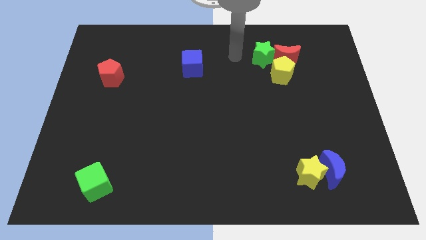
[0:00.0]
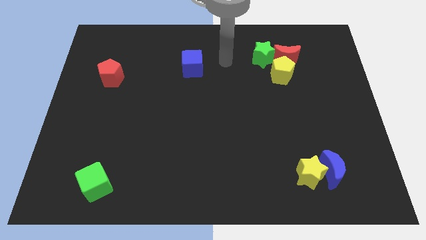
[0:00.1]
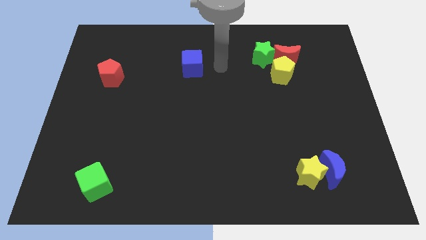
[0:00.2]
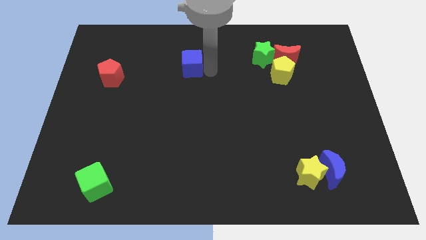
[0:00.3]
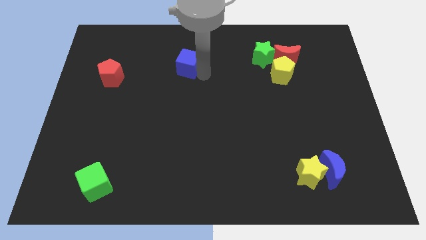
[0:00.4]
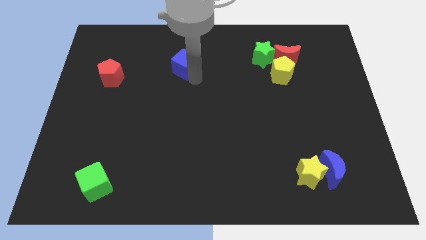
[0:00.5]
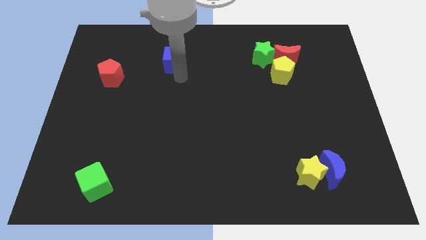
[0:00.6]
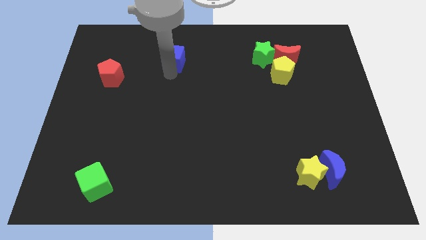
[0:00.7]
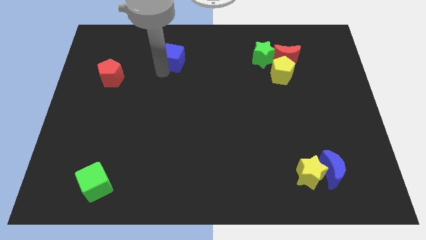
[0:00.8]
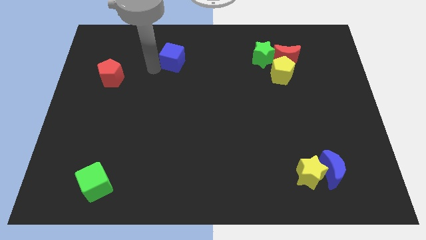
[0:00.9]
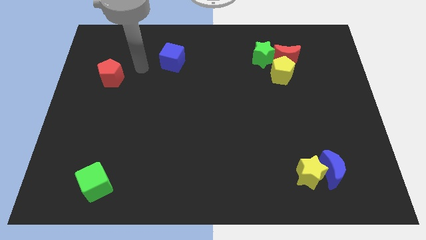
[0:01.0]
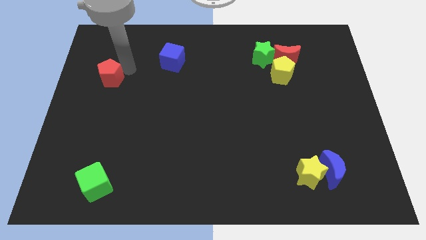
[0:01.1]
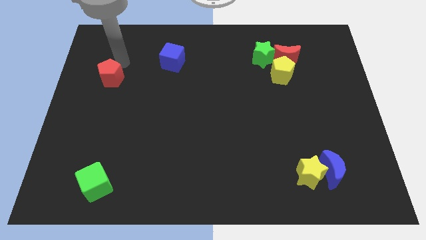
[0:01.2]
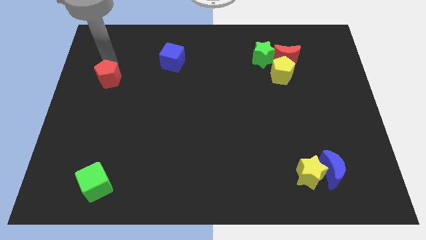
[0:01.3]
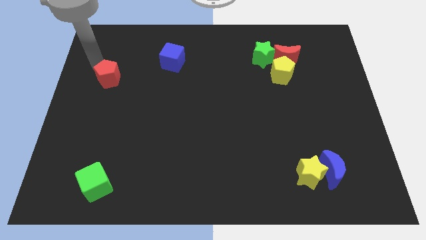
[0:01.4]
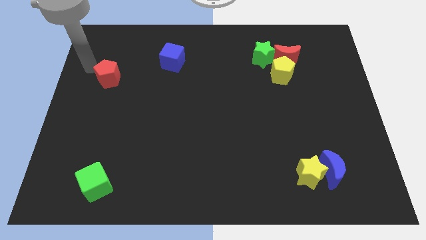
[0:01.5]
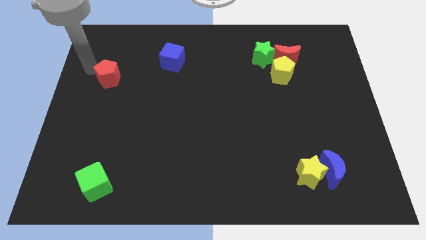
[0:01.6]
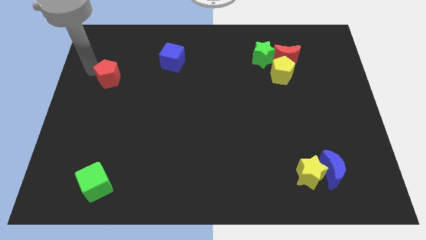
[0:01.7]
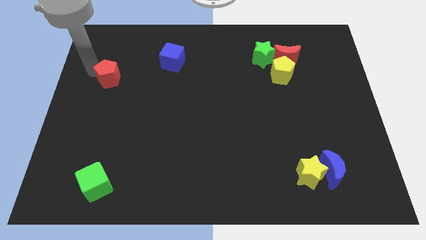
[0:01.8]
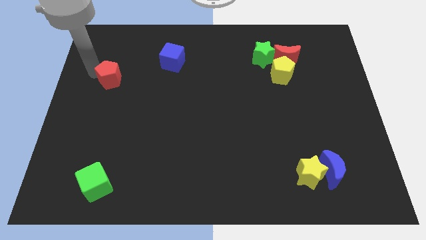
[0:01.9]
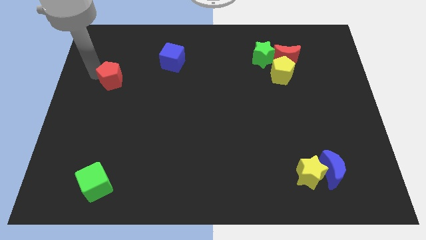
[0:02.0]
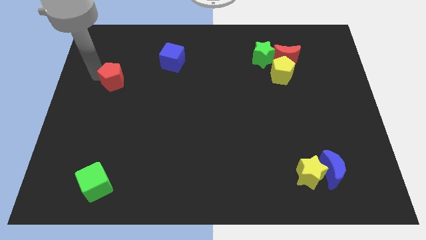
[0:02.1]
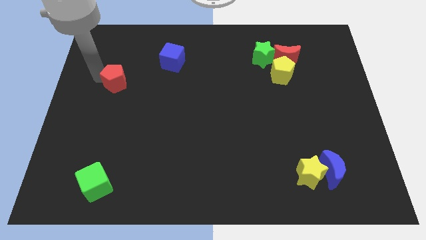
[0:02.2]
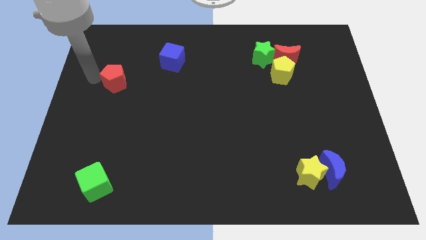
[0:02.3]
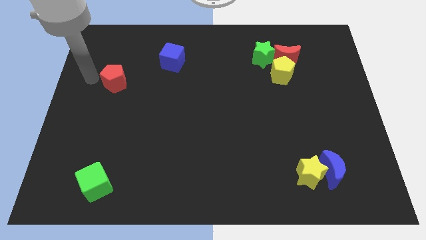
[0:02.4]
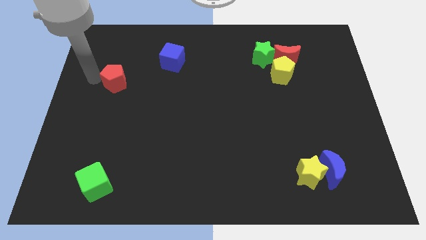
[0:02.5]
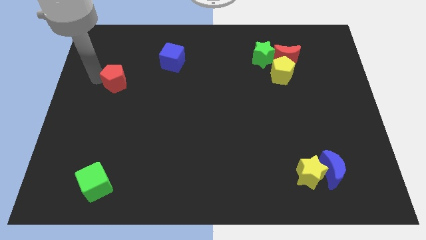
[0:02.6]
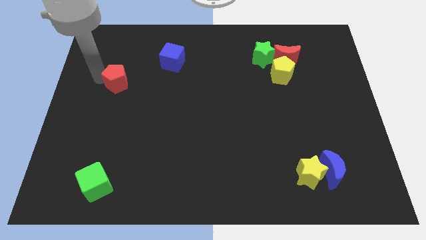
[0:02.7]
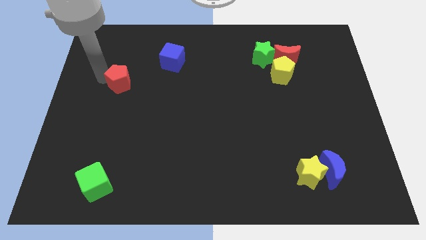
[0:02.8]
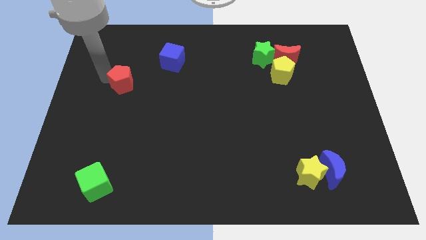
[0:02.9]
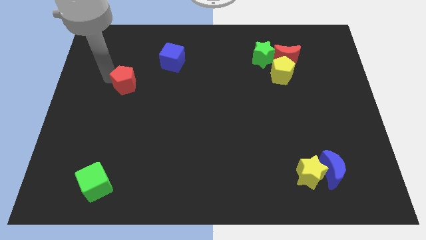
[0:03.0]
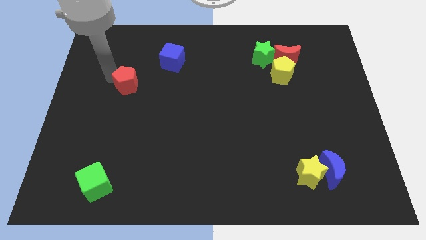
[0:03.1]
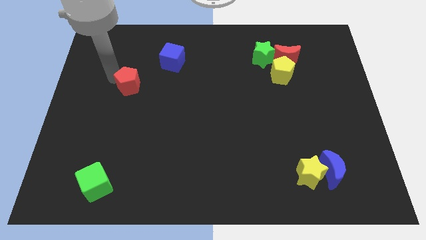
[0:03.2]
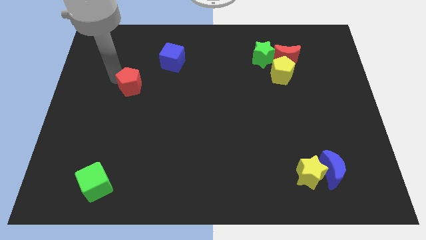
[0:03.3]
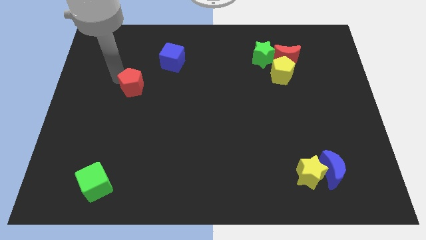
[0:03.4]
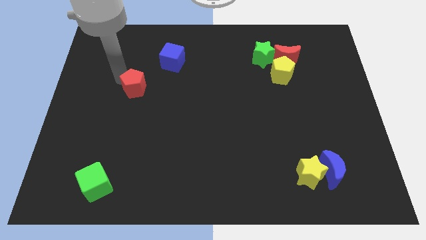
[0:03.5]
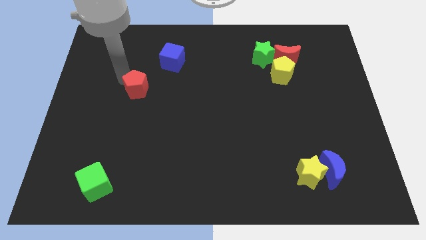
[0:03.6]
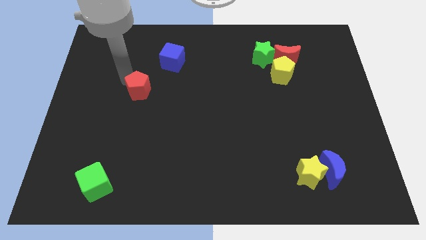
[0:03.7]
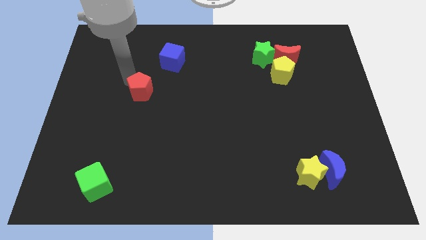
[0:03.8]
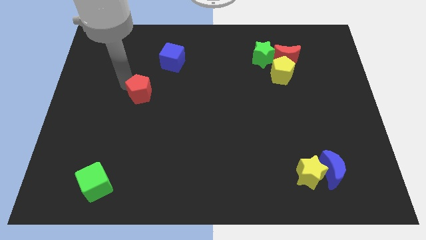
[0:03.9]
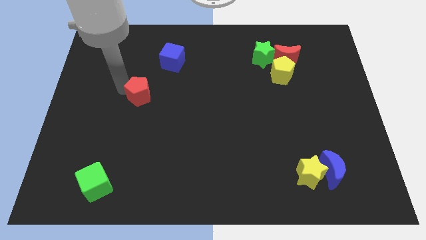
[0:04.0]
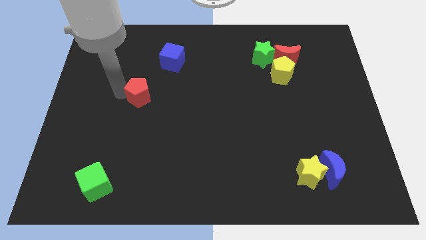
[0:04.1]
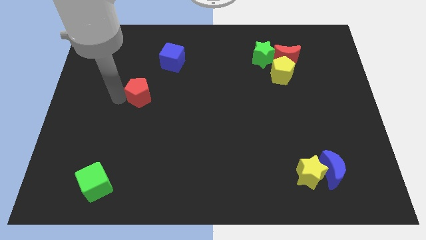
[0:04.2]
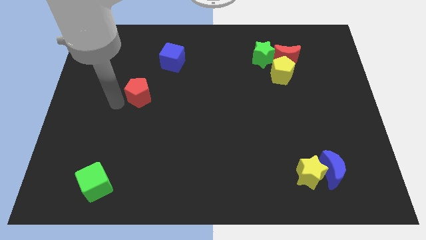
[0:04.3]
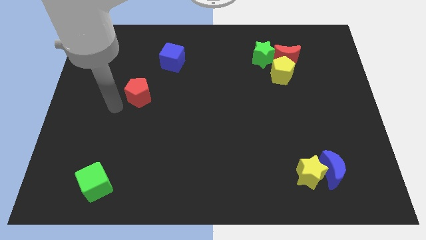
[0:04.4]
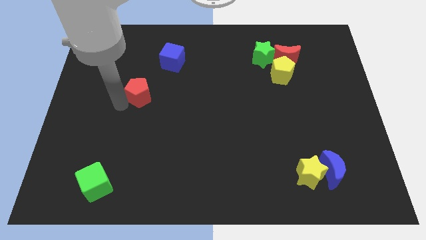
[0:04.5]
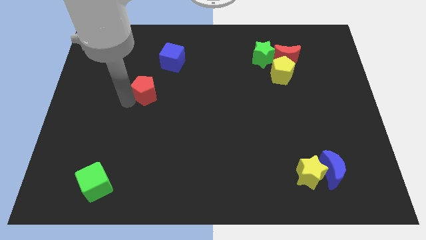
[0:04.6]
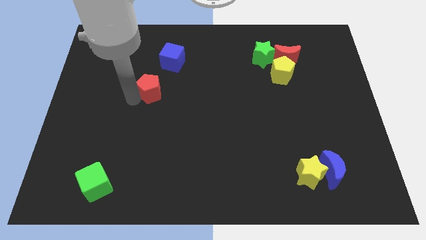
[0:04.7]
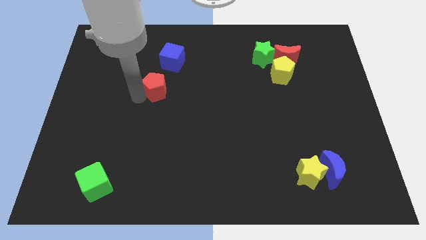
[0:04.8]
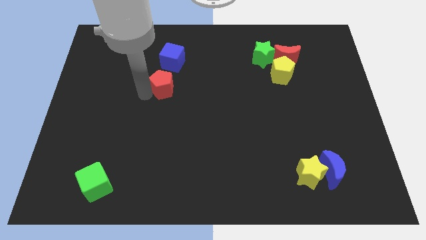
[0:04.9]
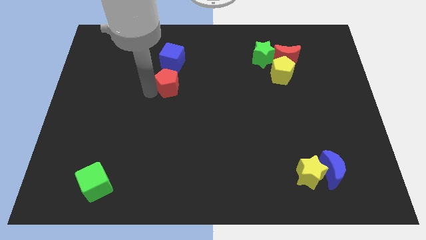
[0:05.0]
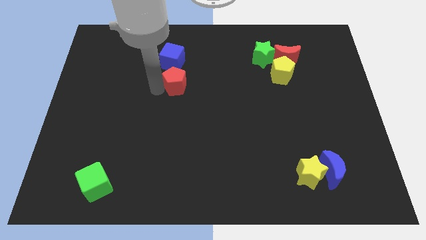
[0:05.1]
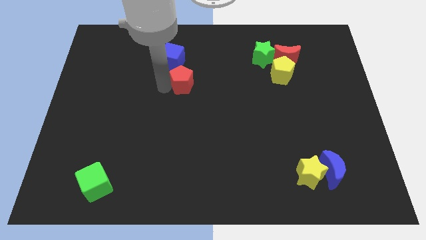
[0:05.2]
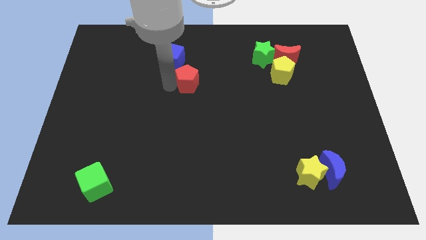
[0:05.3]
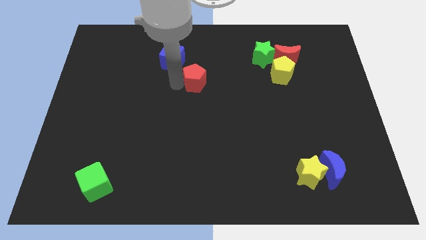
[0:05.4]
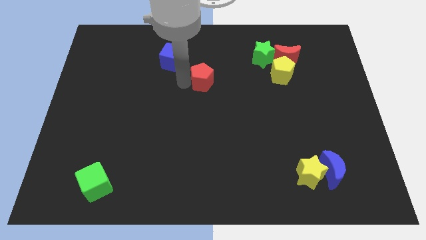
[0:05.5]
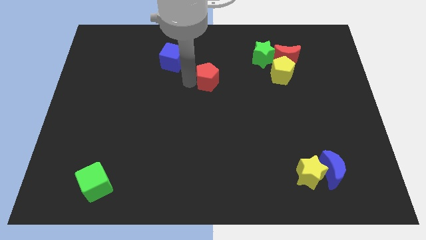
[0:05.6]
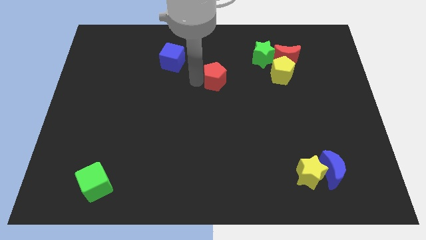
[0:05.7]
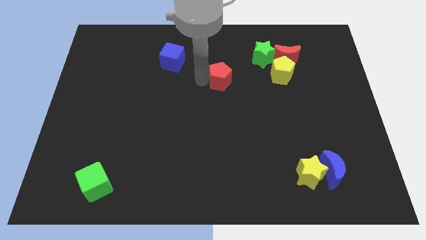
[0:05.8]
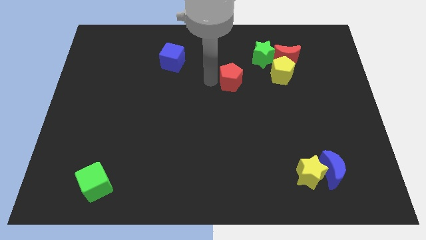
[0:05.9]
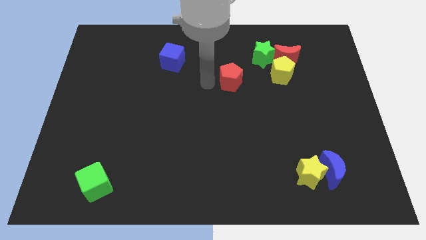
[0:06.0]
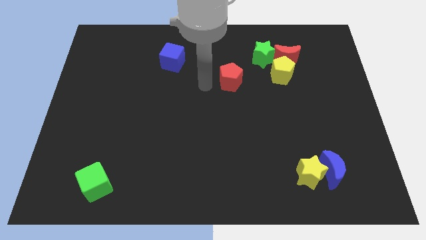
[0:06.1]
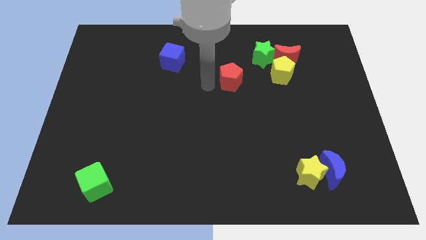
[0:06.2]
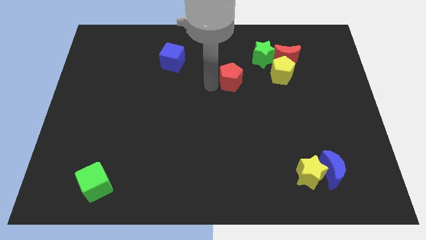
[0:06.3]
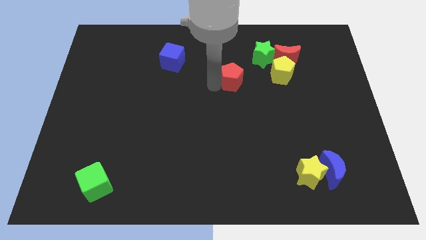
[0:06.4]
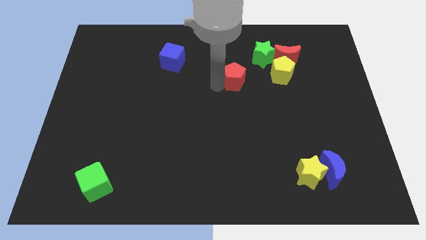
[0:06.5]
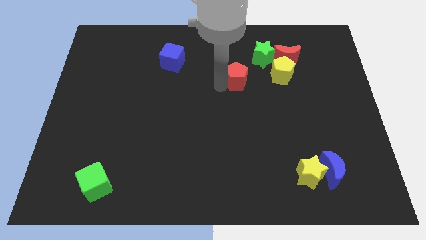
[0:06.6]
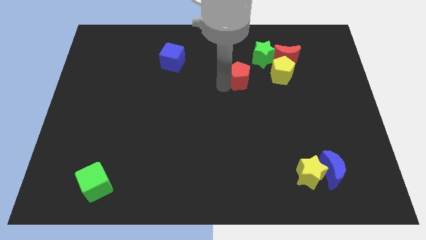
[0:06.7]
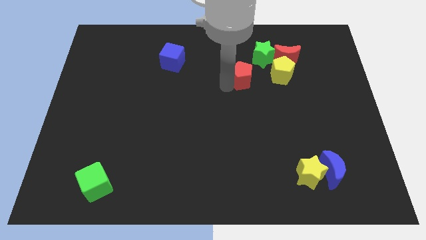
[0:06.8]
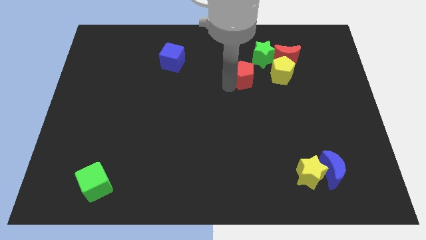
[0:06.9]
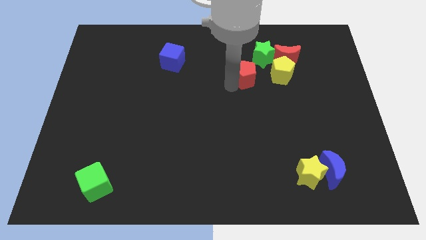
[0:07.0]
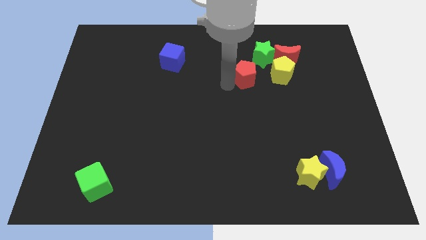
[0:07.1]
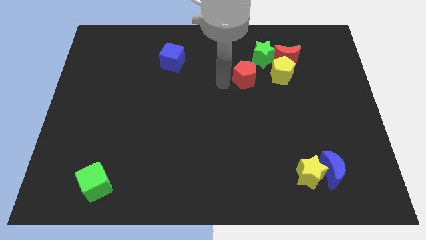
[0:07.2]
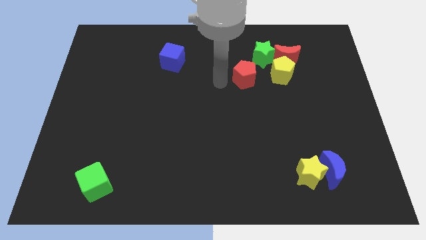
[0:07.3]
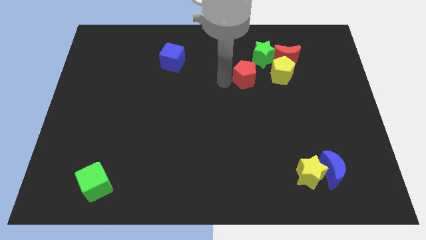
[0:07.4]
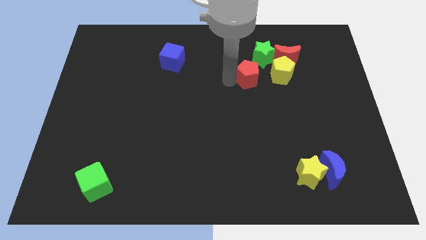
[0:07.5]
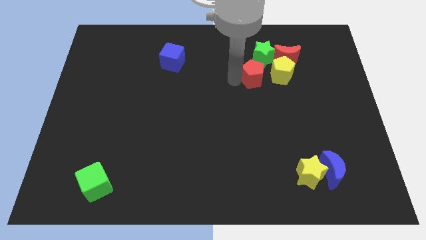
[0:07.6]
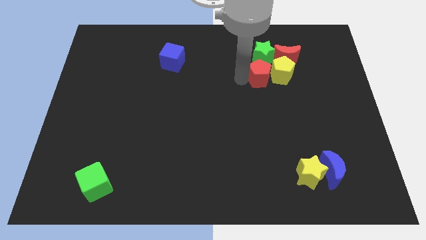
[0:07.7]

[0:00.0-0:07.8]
move the red pentagon next to the yellow pentagon
